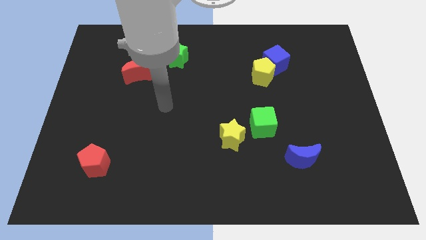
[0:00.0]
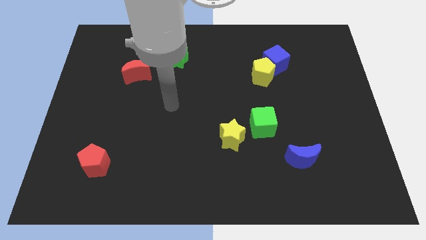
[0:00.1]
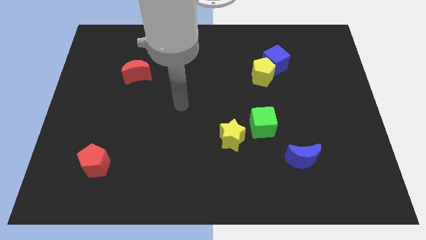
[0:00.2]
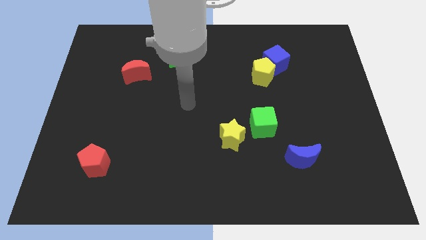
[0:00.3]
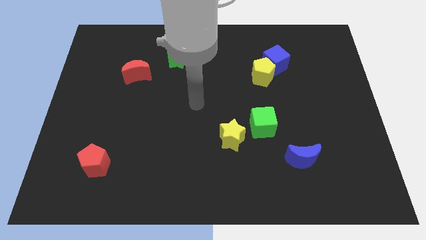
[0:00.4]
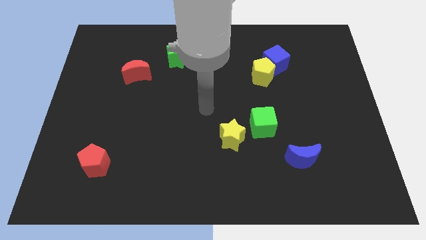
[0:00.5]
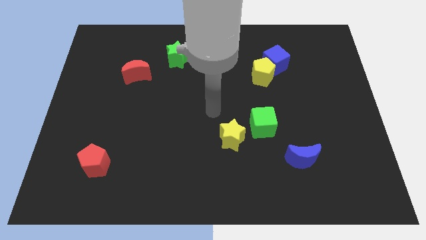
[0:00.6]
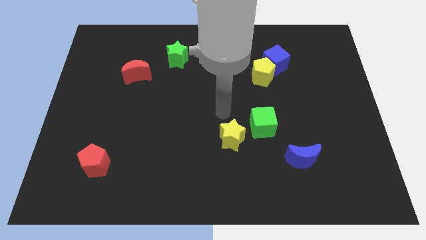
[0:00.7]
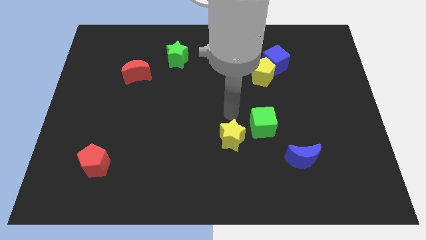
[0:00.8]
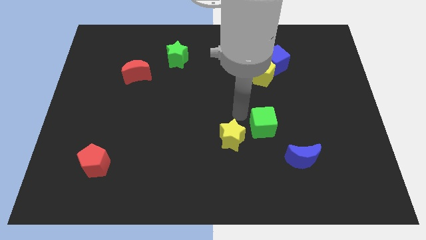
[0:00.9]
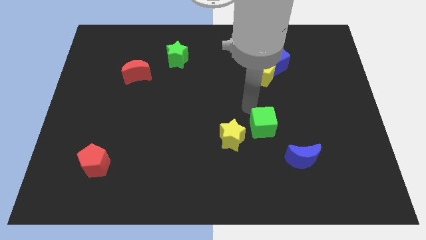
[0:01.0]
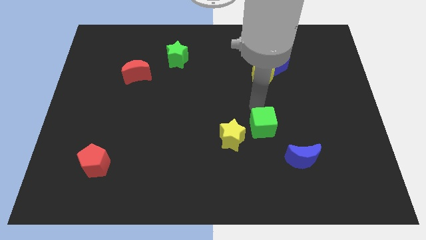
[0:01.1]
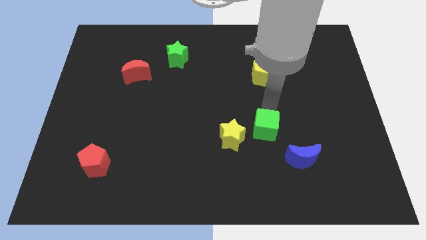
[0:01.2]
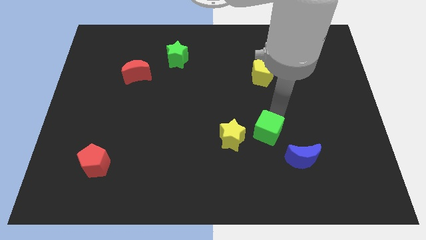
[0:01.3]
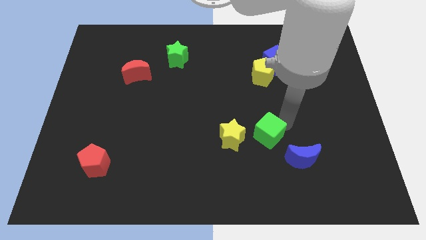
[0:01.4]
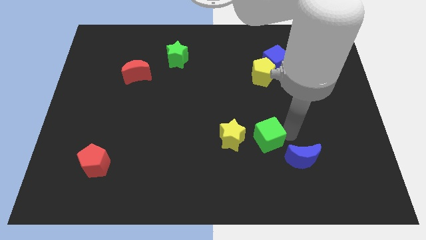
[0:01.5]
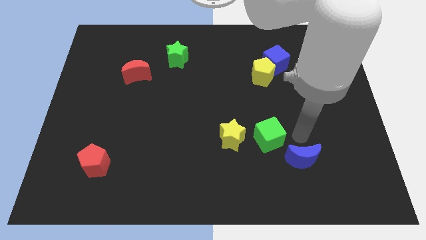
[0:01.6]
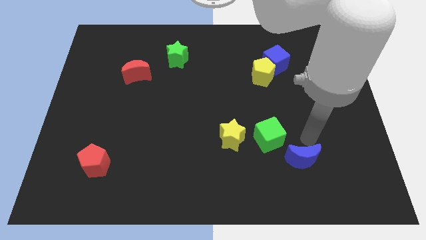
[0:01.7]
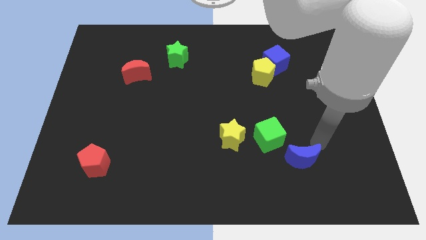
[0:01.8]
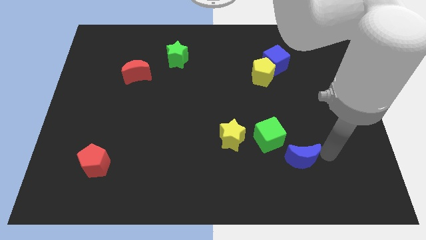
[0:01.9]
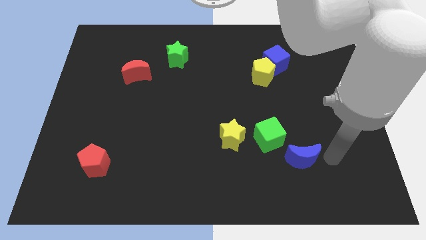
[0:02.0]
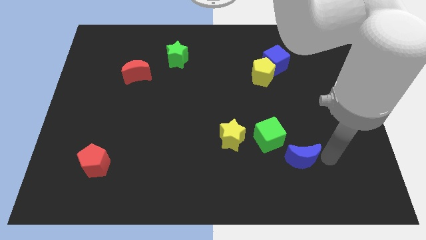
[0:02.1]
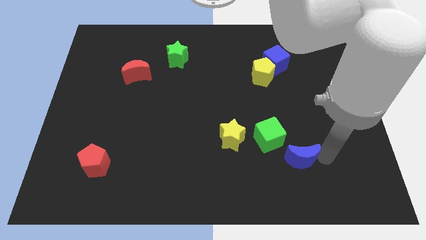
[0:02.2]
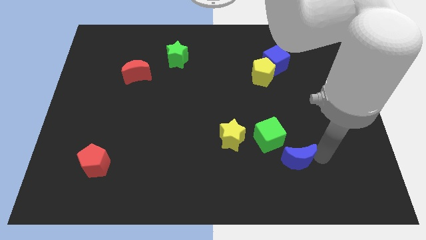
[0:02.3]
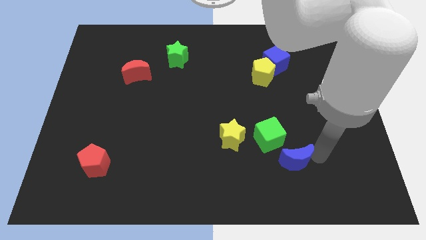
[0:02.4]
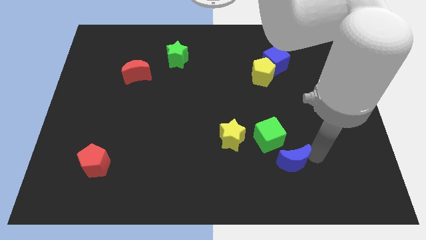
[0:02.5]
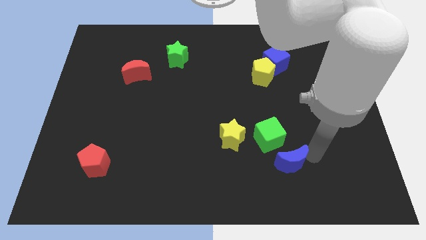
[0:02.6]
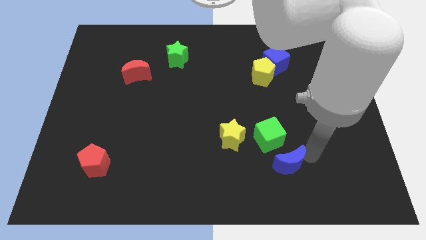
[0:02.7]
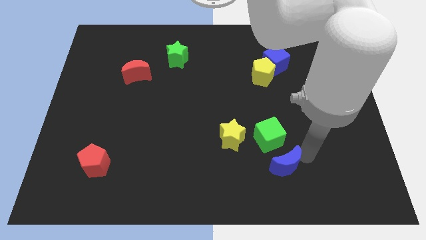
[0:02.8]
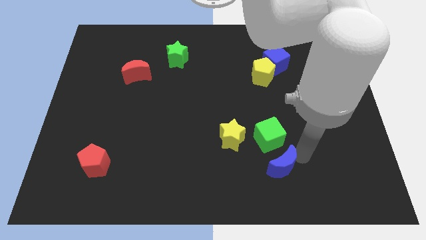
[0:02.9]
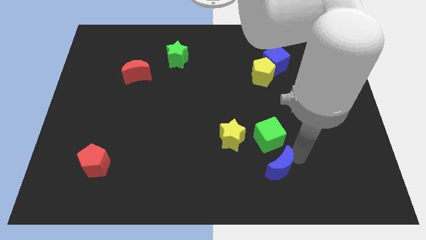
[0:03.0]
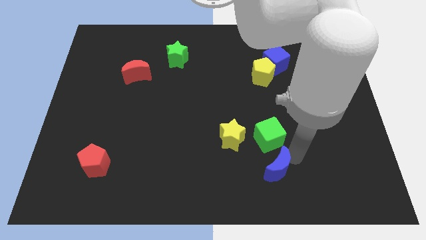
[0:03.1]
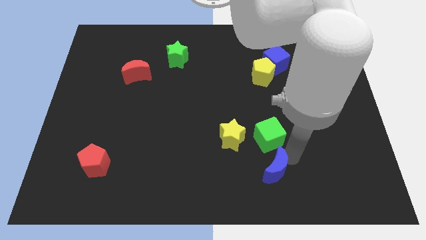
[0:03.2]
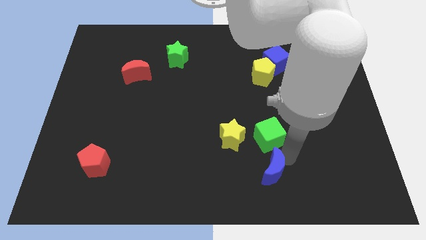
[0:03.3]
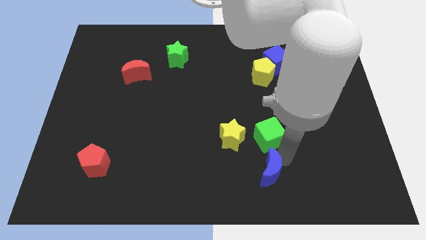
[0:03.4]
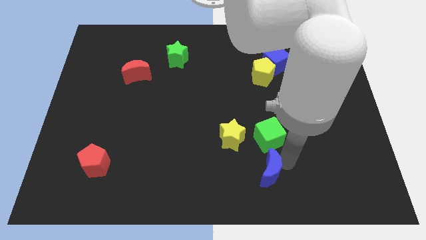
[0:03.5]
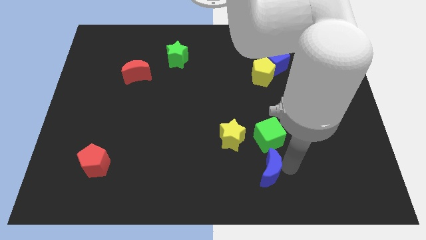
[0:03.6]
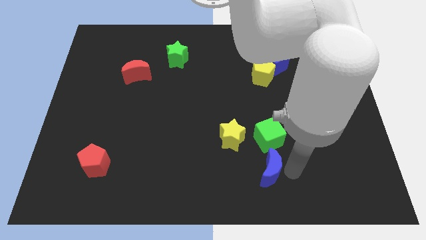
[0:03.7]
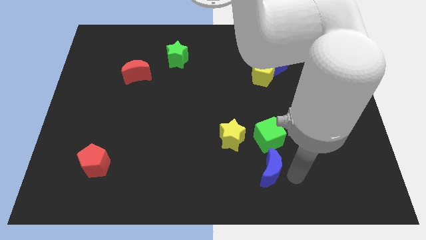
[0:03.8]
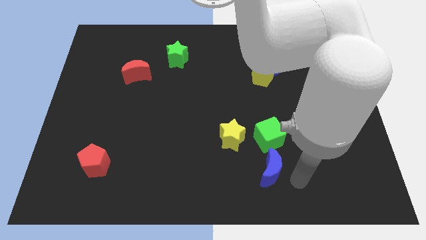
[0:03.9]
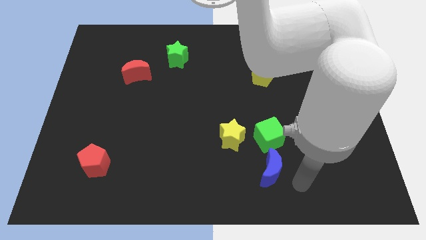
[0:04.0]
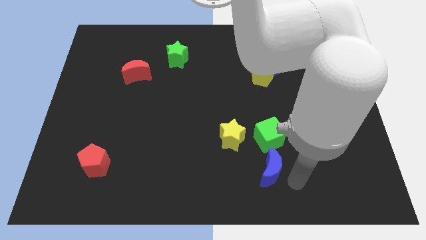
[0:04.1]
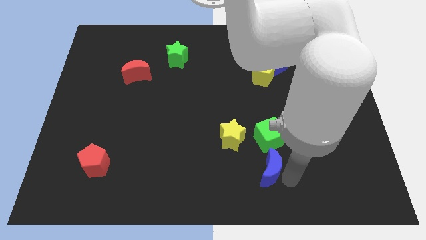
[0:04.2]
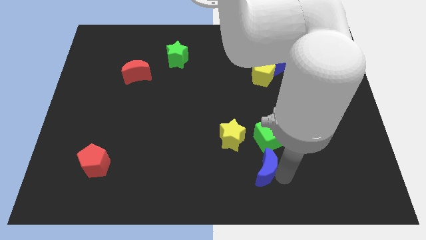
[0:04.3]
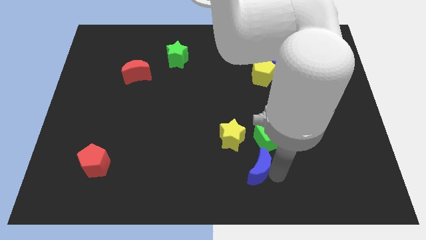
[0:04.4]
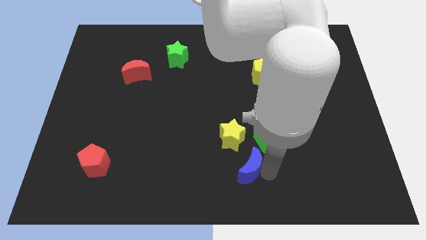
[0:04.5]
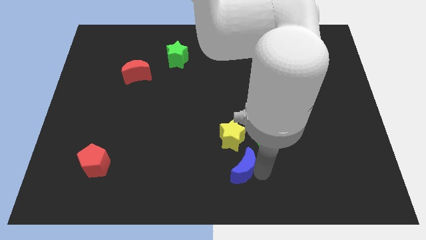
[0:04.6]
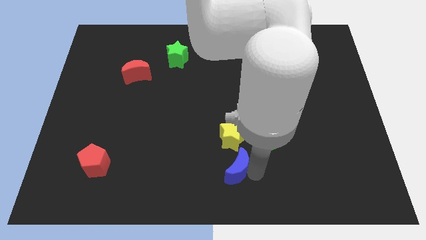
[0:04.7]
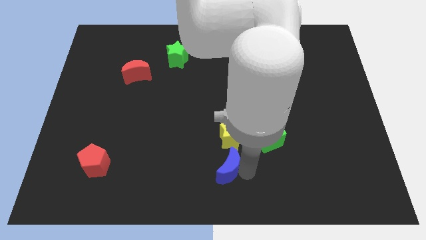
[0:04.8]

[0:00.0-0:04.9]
put the blue moon diagonally down and to the left of the yellow star

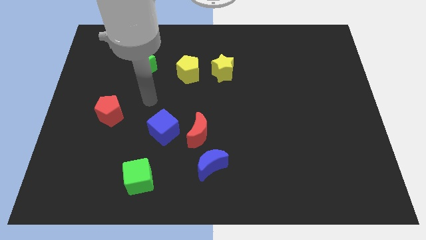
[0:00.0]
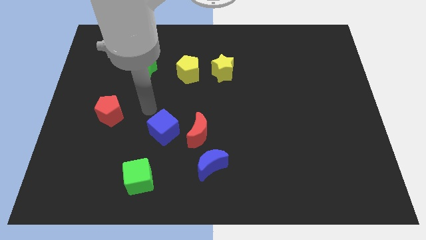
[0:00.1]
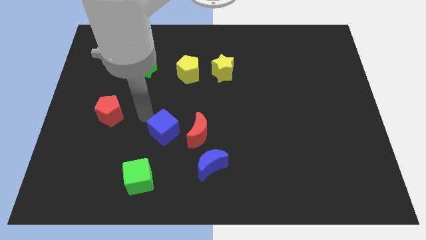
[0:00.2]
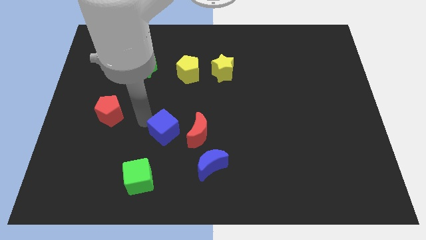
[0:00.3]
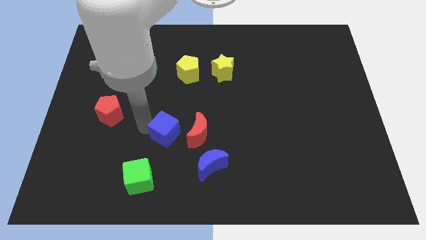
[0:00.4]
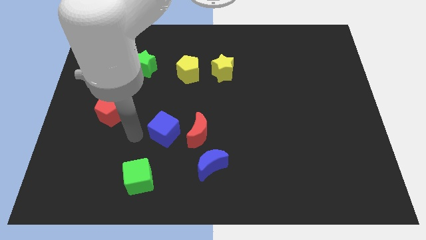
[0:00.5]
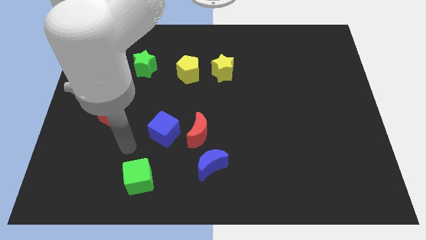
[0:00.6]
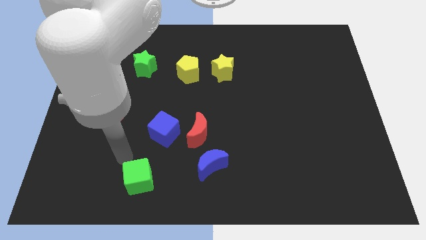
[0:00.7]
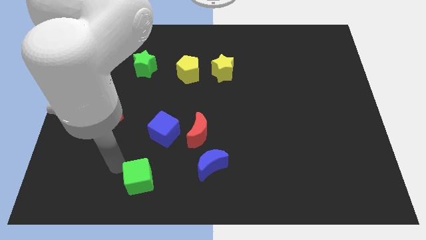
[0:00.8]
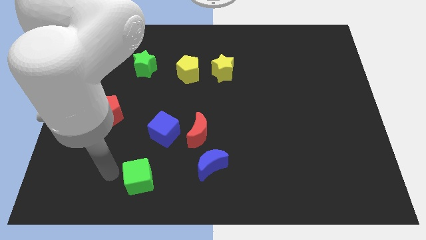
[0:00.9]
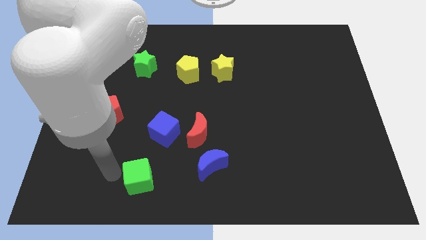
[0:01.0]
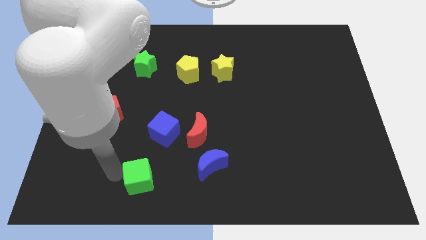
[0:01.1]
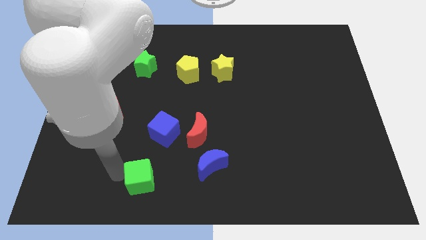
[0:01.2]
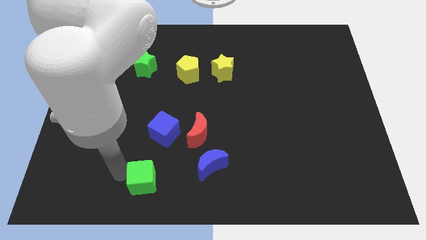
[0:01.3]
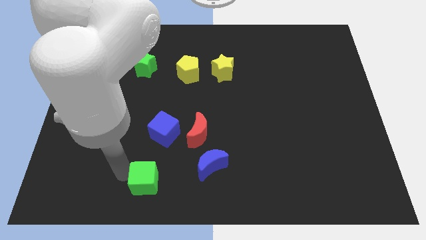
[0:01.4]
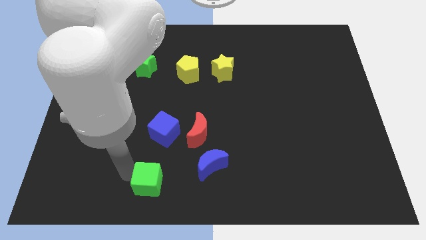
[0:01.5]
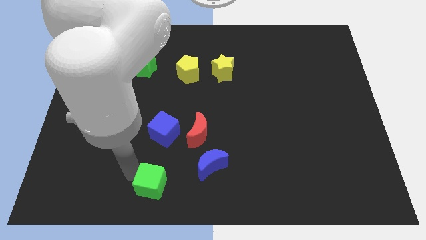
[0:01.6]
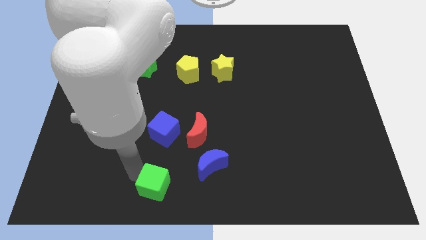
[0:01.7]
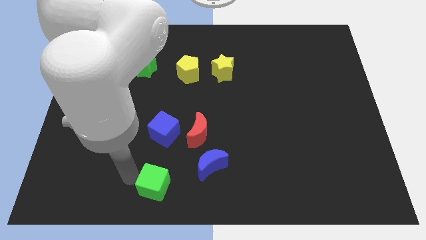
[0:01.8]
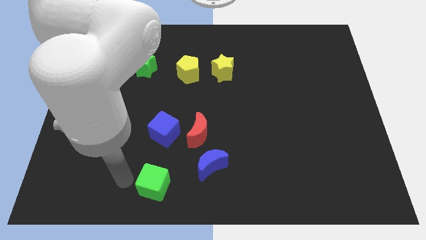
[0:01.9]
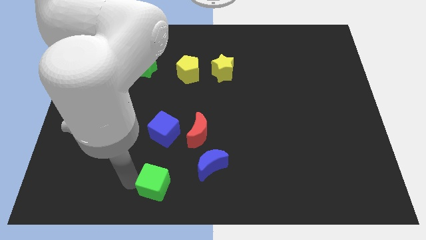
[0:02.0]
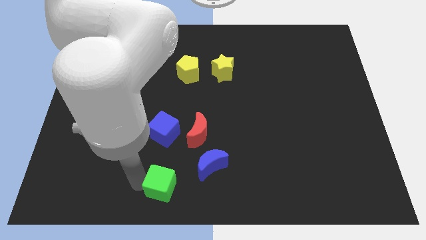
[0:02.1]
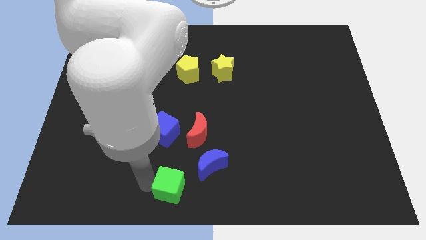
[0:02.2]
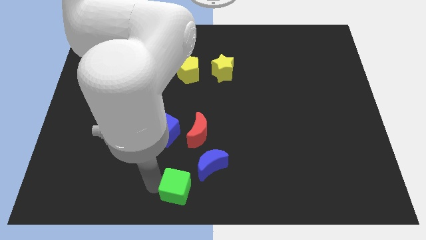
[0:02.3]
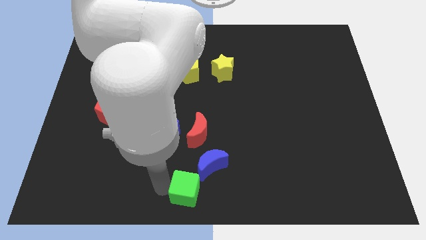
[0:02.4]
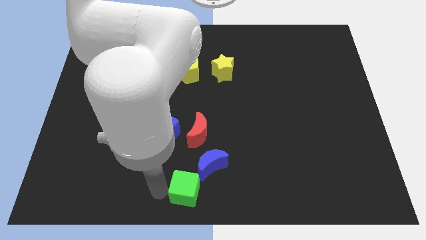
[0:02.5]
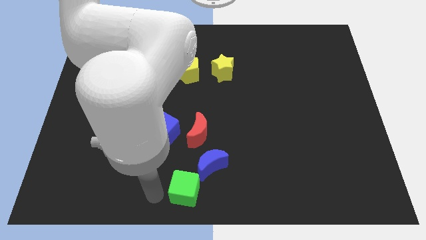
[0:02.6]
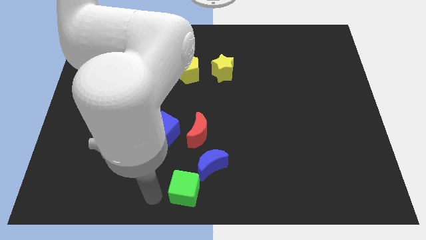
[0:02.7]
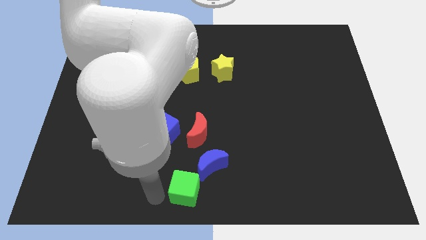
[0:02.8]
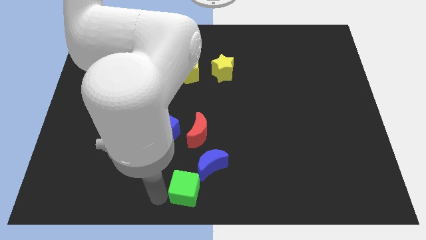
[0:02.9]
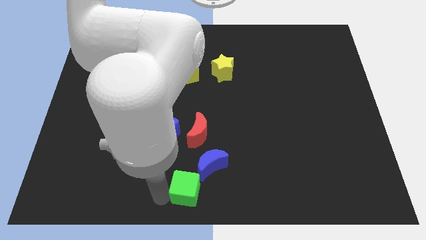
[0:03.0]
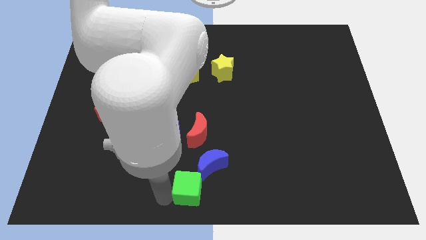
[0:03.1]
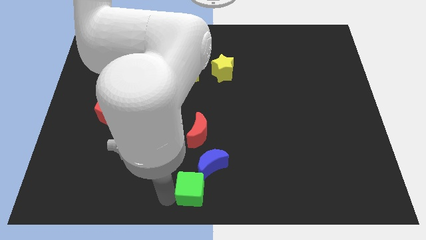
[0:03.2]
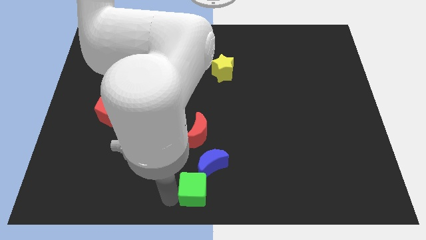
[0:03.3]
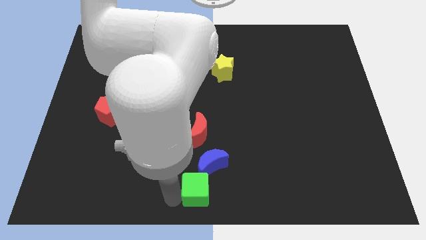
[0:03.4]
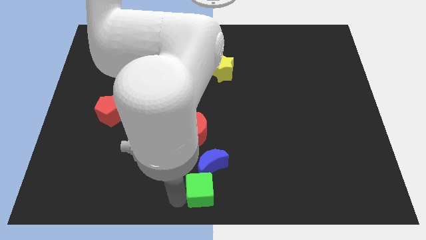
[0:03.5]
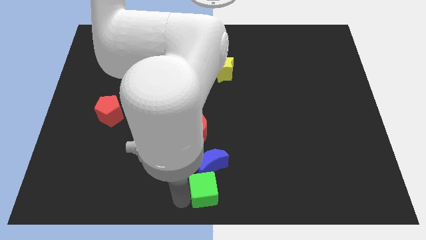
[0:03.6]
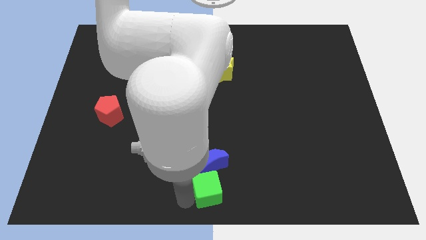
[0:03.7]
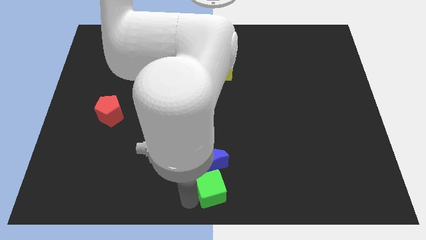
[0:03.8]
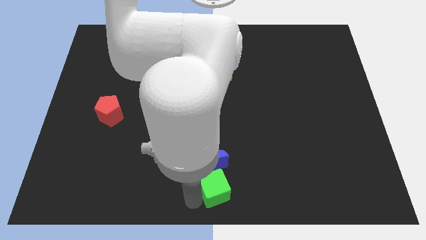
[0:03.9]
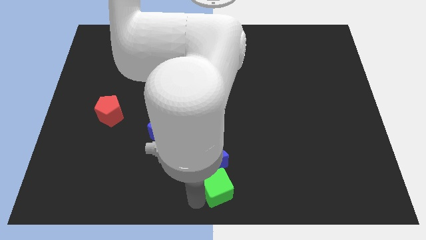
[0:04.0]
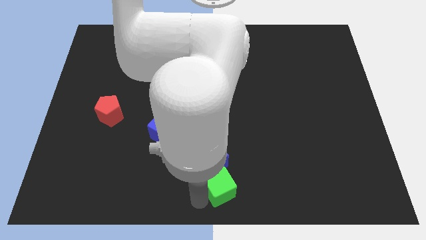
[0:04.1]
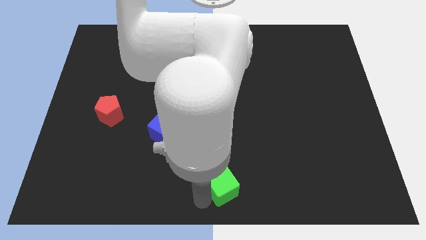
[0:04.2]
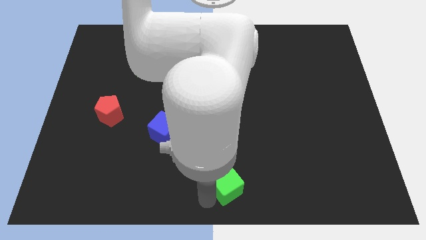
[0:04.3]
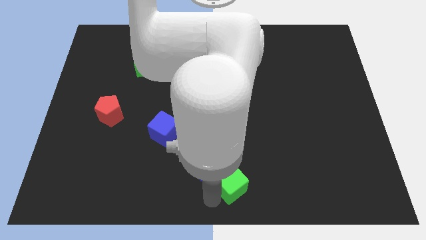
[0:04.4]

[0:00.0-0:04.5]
slide the green cube just right of the blue moon
